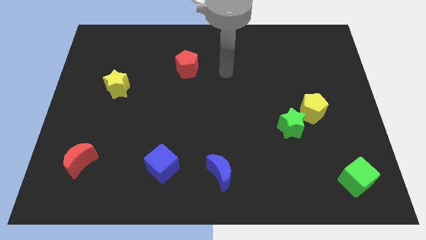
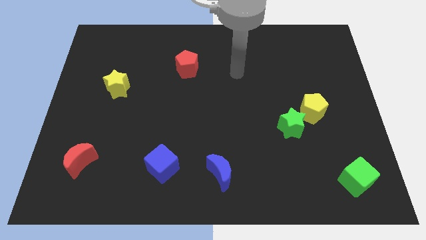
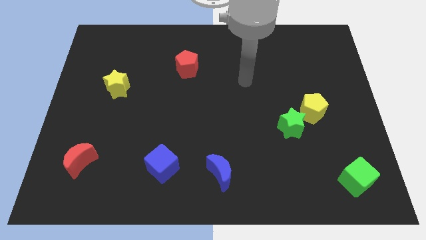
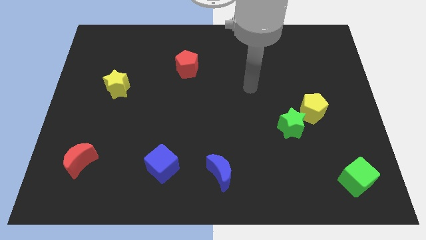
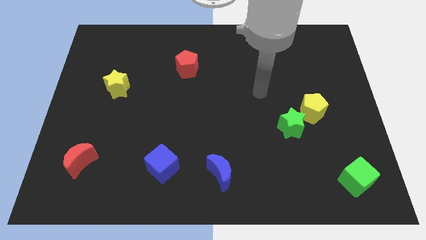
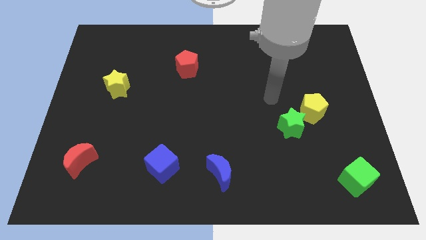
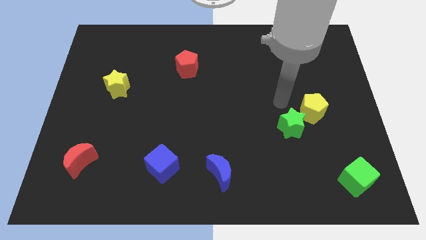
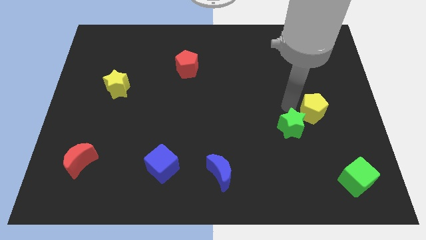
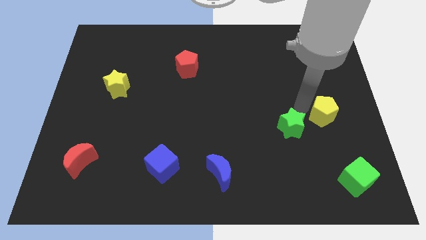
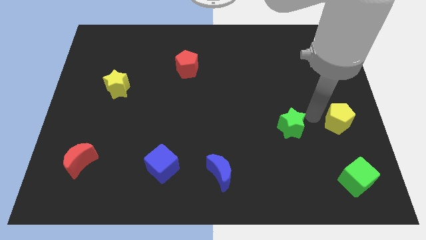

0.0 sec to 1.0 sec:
separate the green star from the yellow pentagon

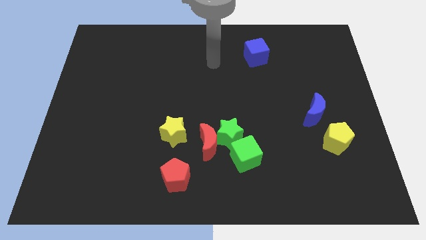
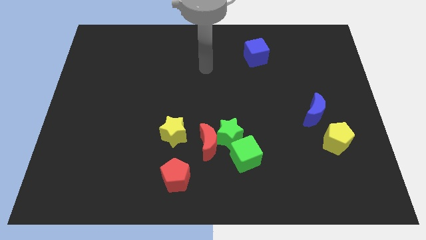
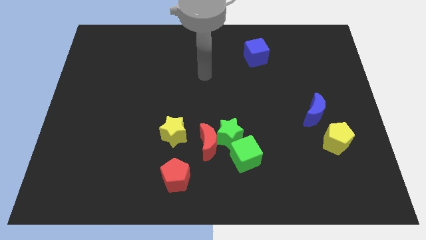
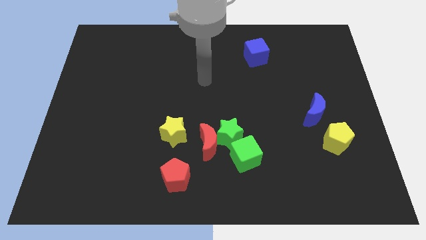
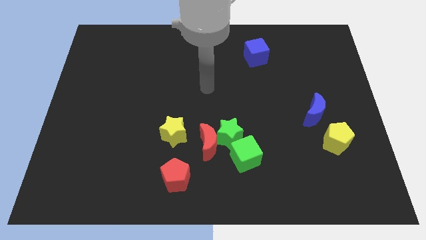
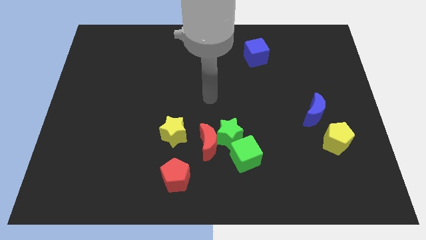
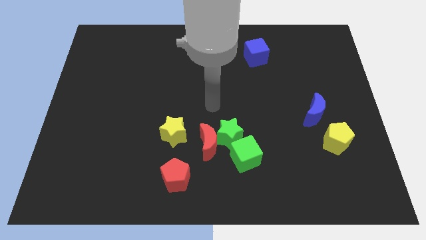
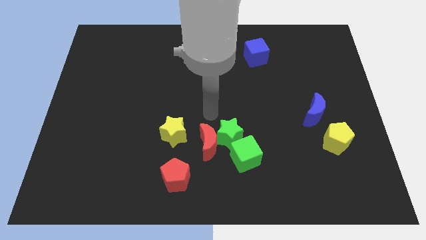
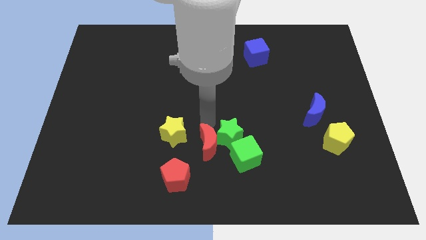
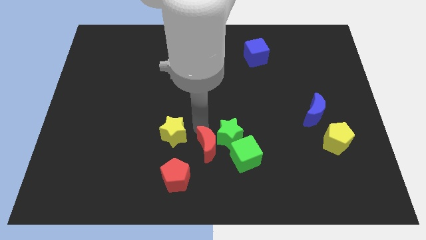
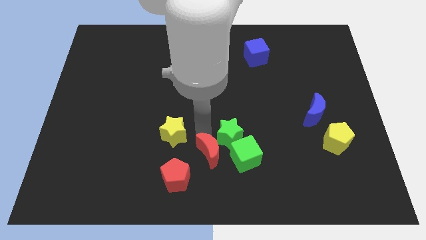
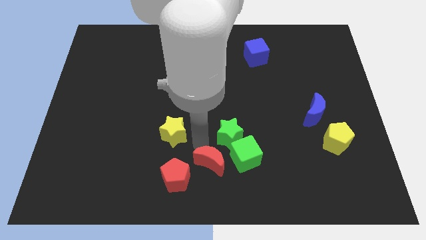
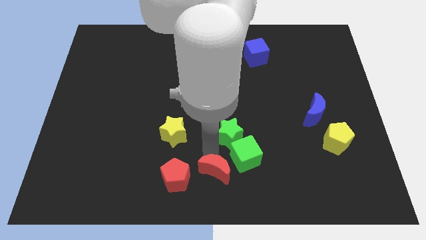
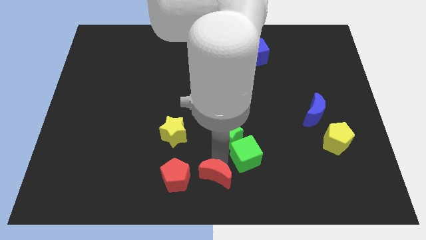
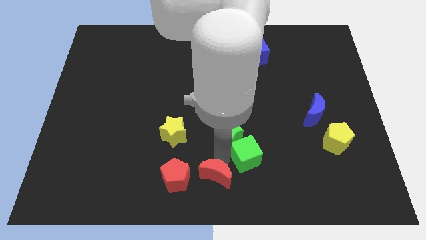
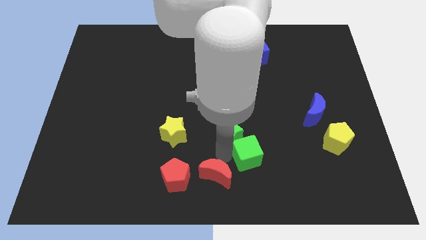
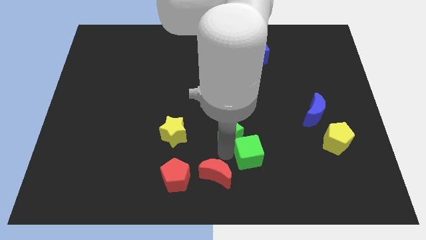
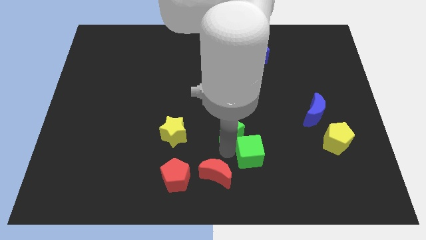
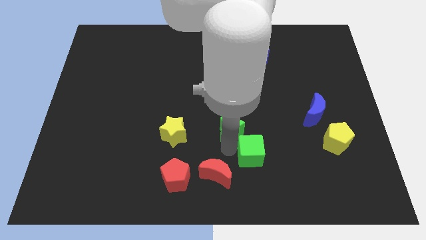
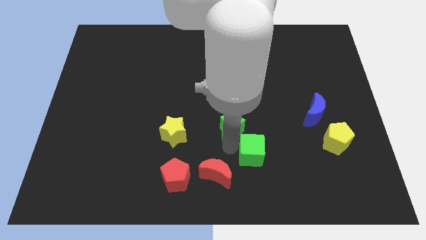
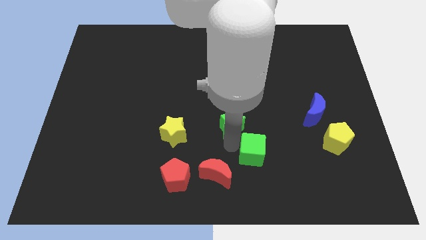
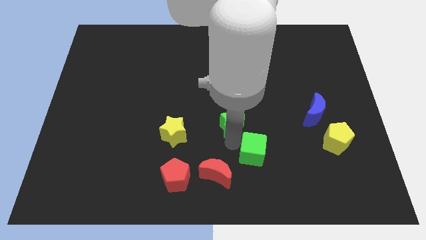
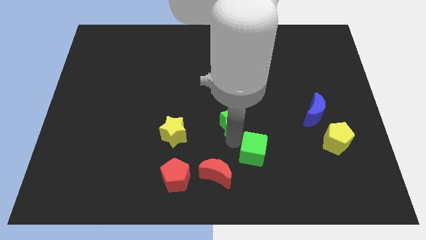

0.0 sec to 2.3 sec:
separate the green star from the red moon and green cube

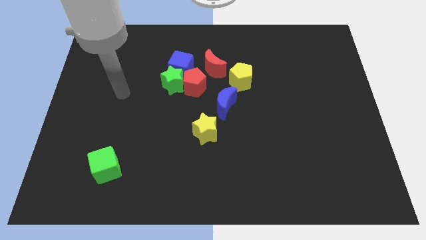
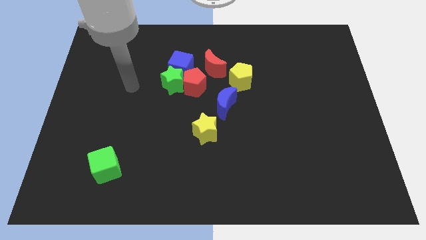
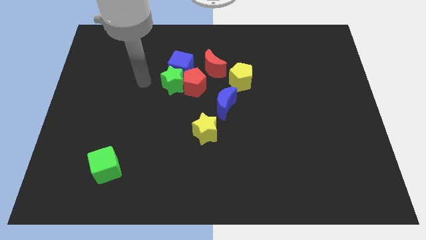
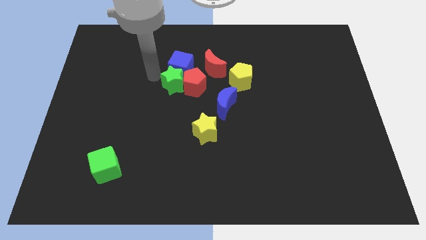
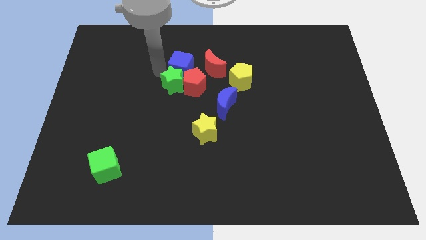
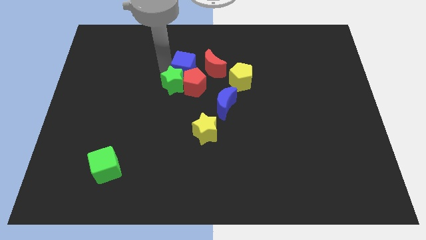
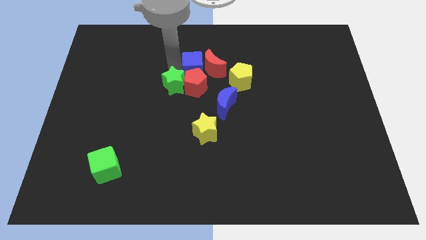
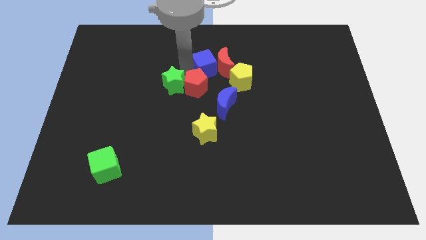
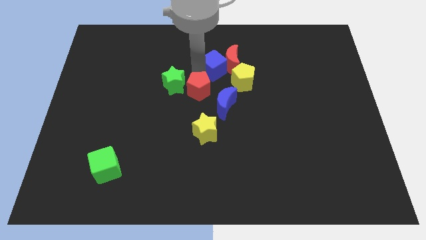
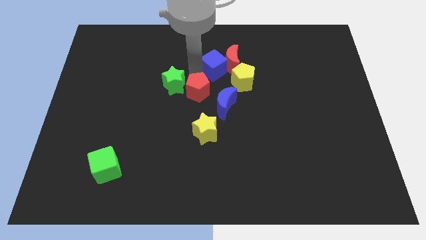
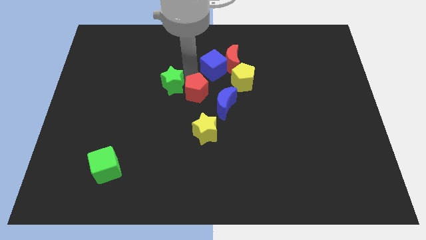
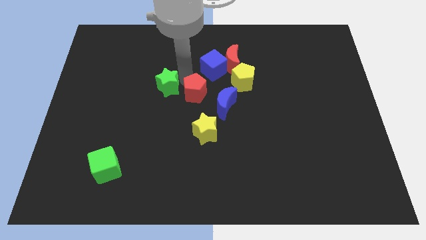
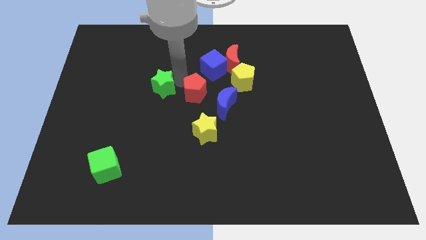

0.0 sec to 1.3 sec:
pull the green star apart from the blue cube and red pentagon

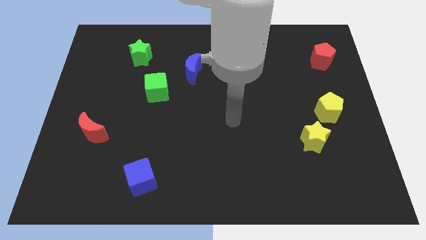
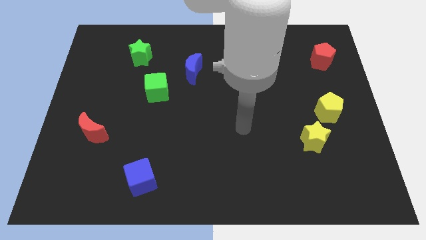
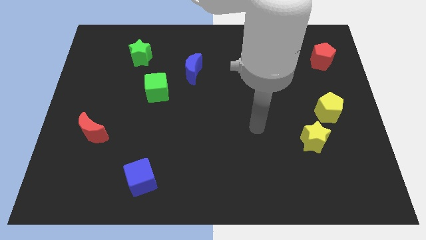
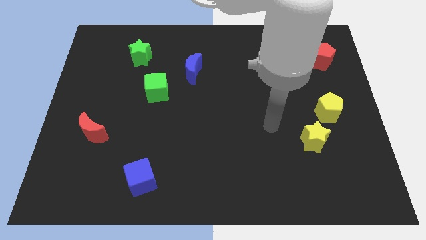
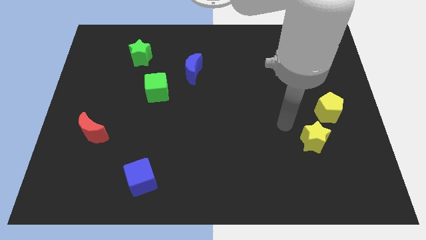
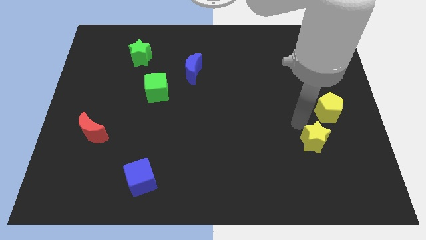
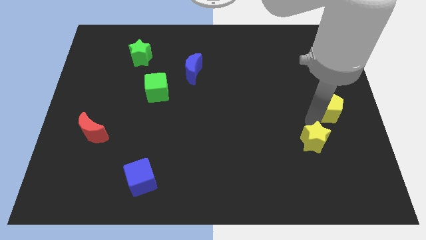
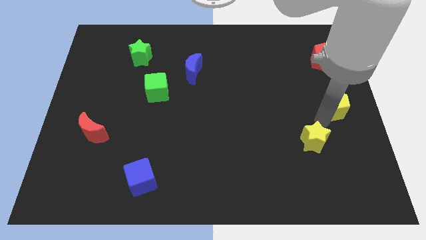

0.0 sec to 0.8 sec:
separate the yellow star from the yellow pentagon

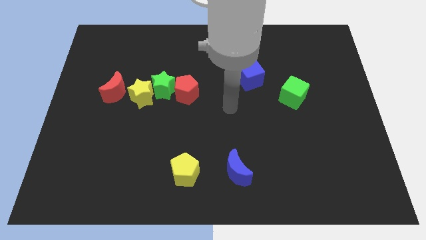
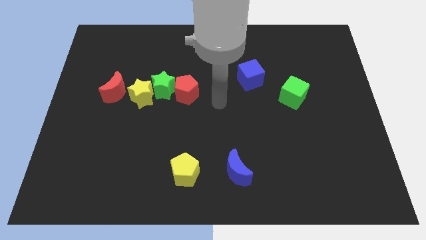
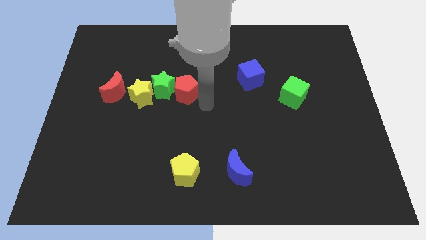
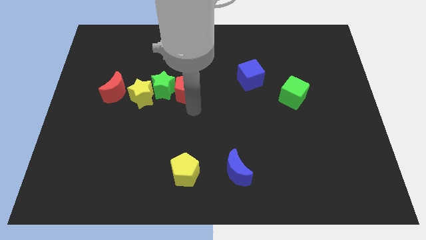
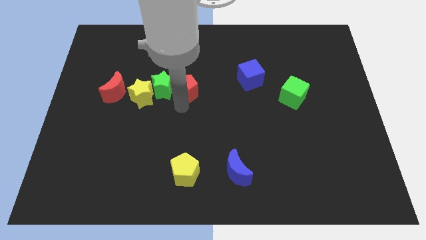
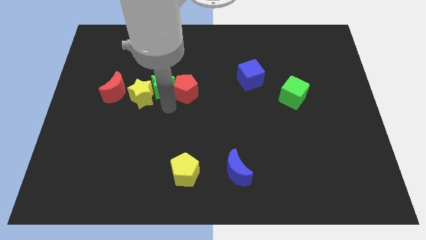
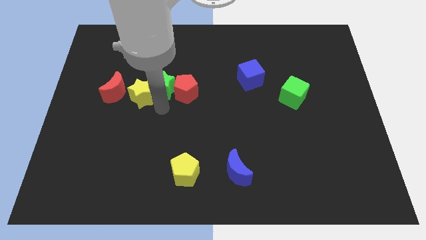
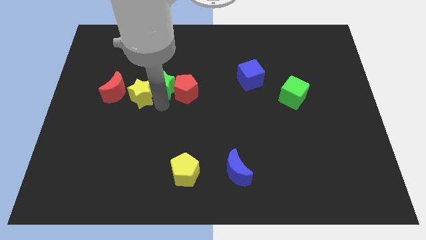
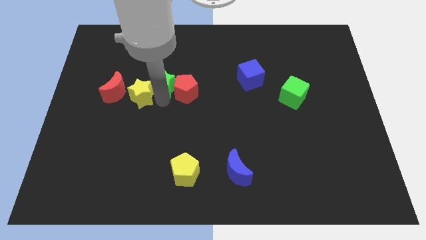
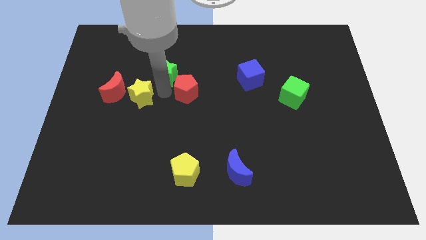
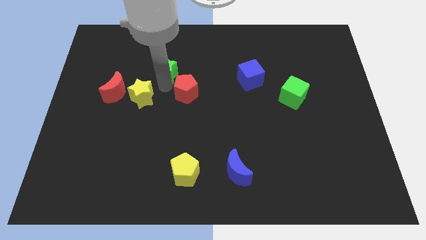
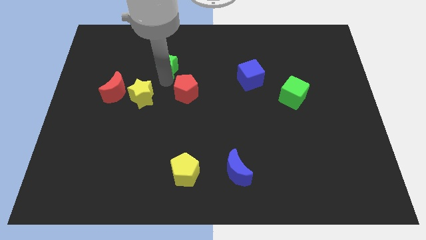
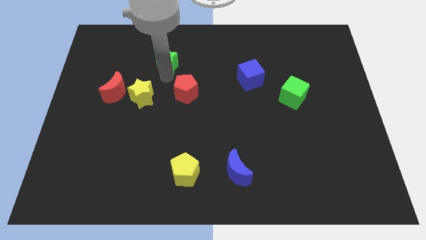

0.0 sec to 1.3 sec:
move the green star away from the yellow star and red pentagon

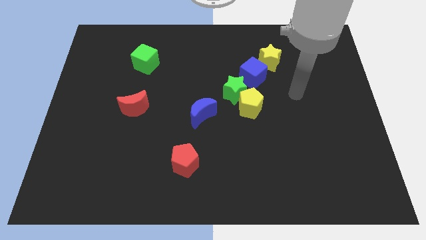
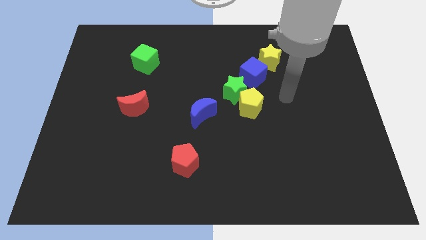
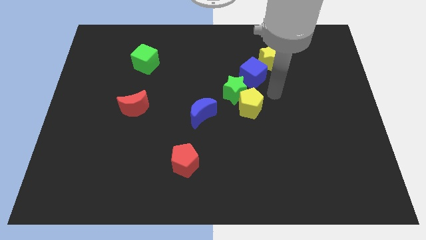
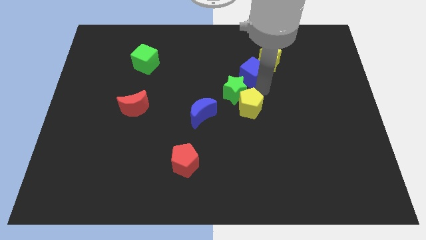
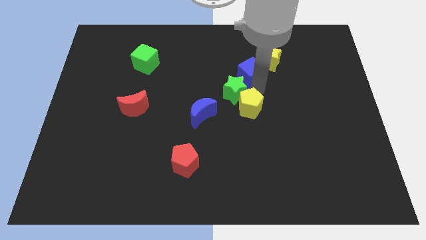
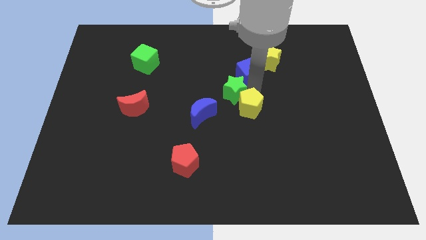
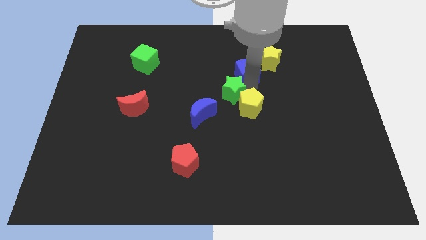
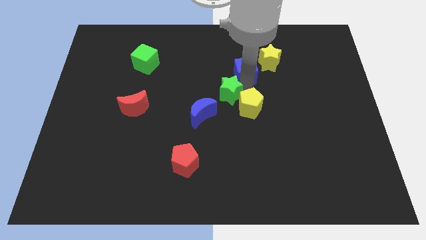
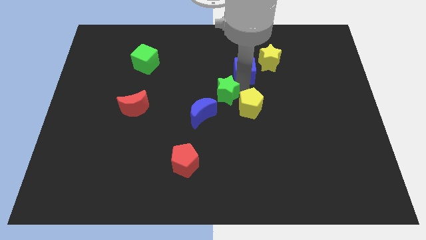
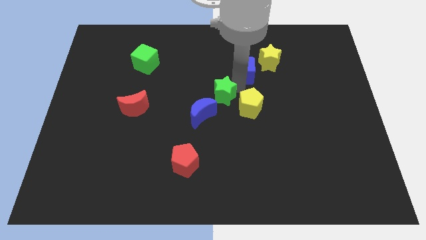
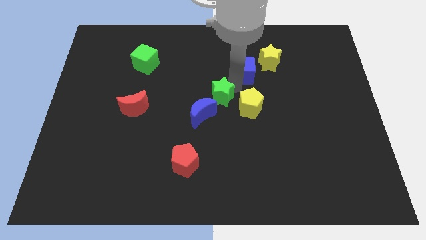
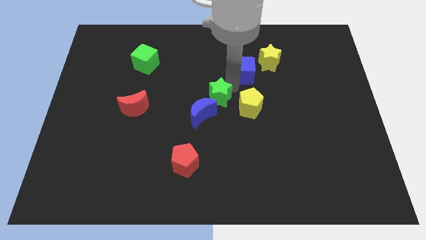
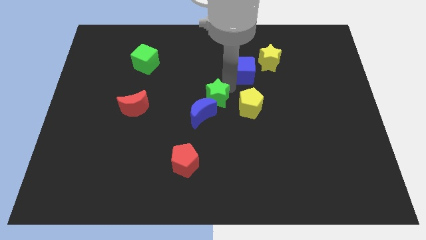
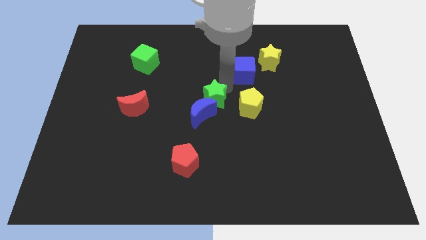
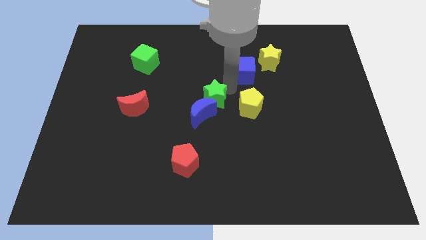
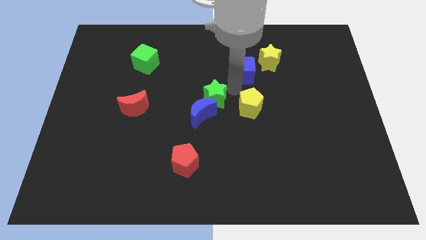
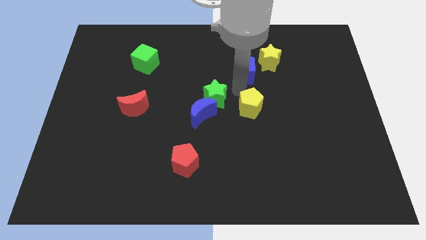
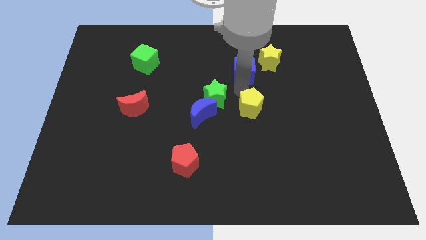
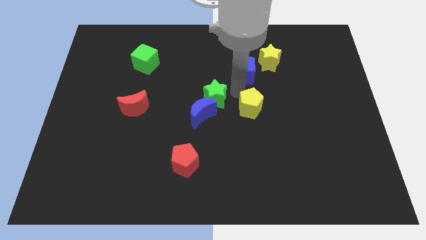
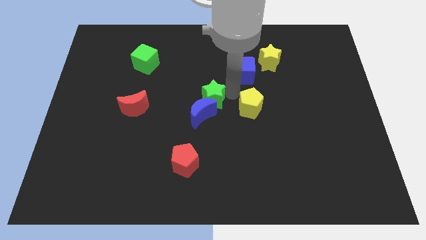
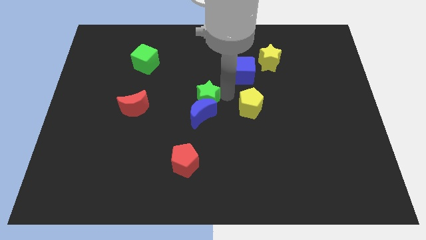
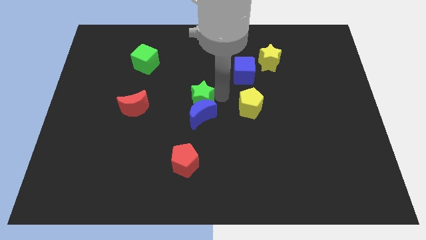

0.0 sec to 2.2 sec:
move the green star away from the yellow pentagon and blue cube

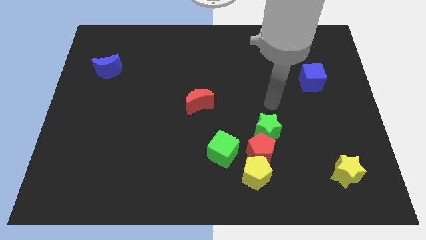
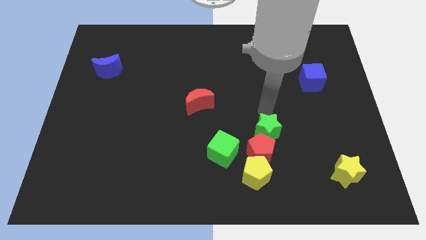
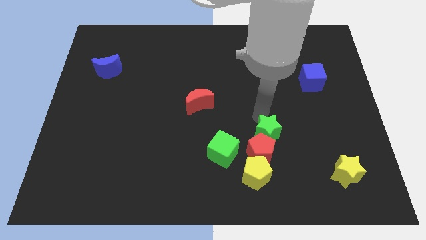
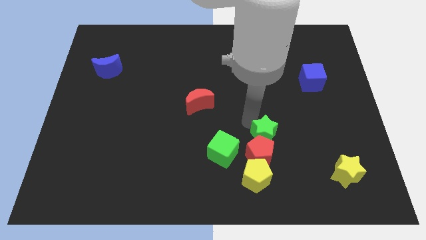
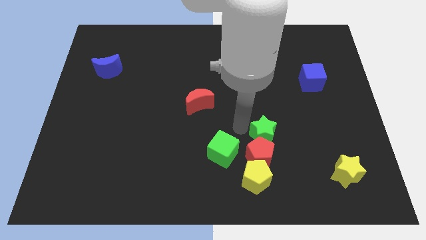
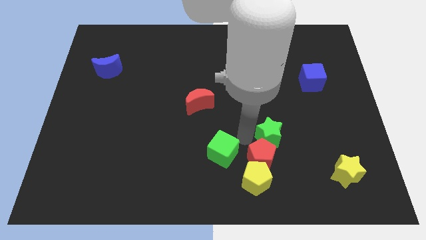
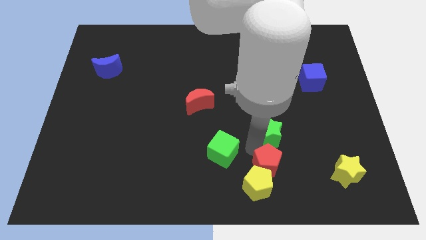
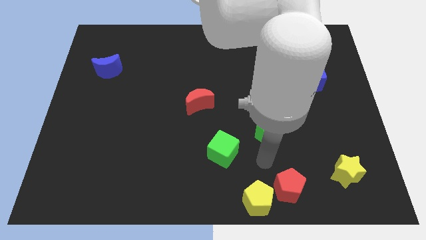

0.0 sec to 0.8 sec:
separate the green star from the red pentagon
